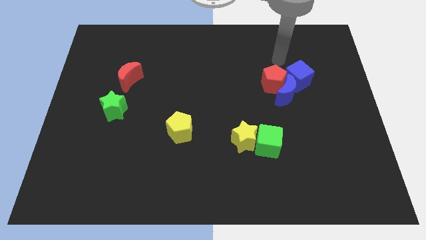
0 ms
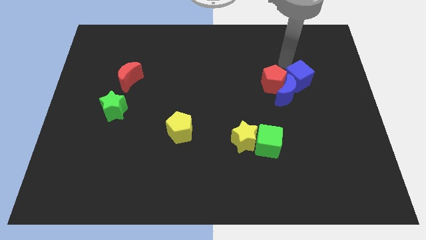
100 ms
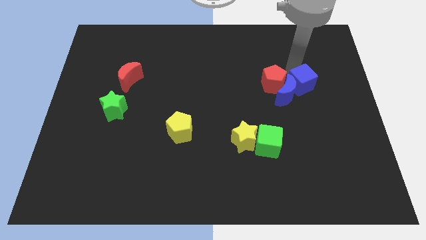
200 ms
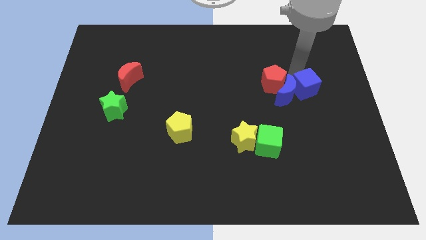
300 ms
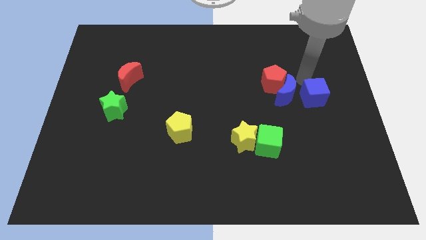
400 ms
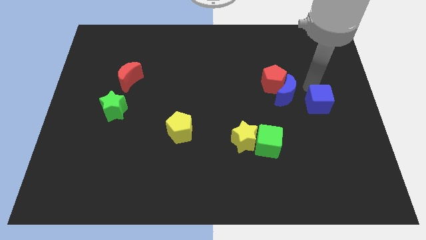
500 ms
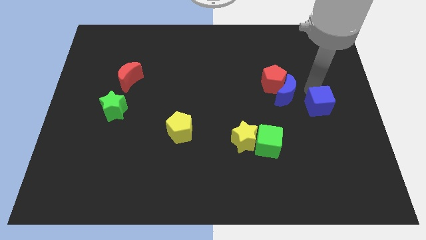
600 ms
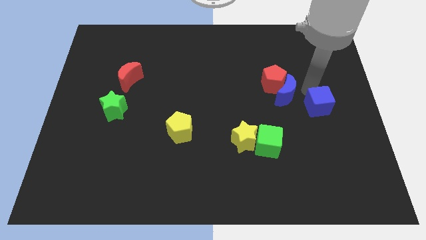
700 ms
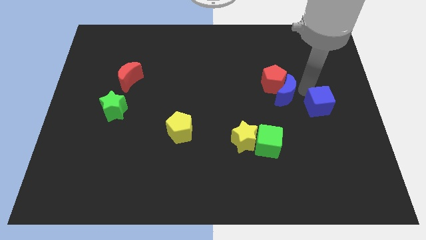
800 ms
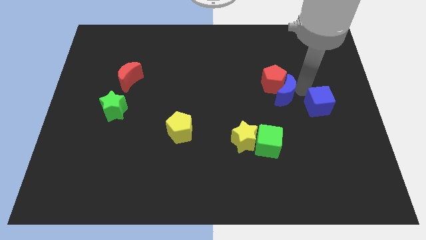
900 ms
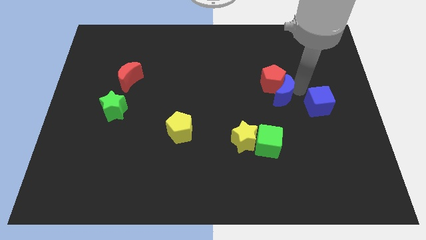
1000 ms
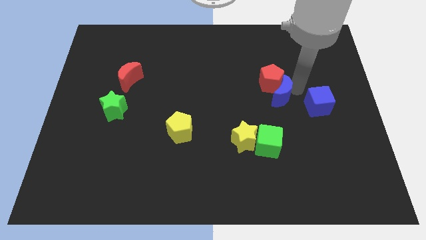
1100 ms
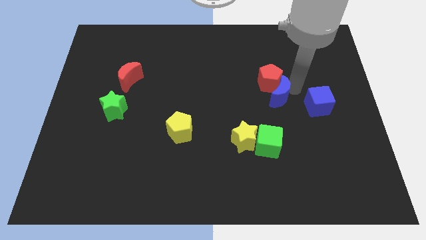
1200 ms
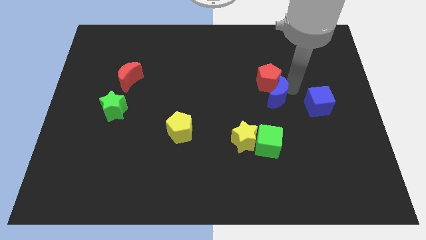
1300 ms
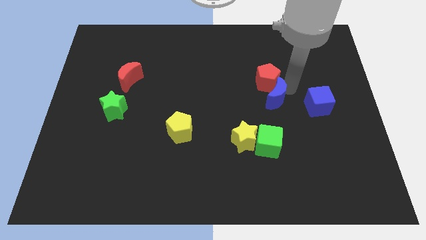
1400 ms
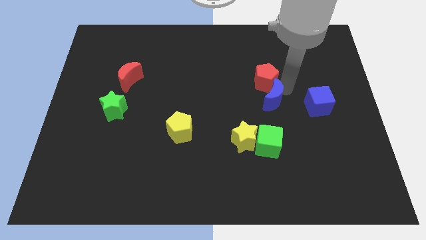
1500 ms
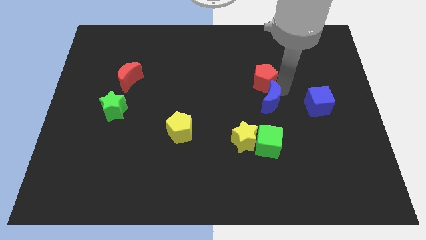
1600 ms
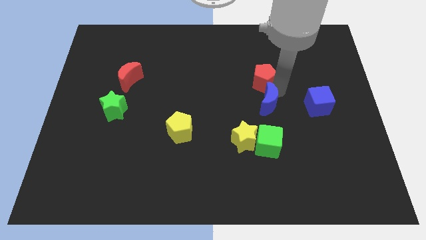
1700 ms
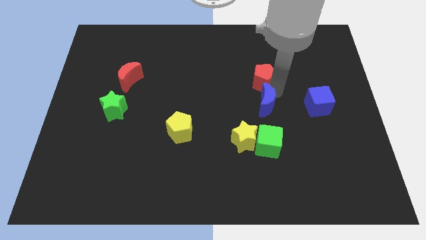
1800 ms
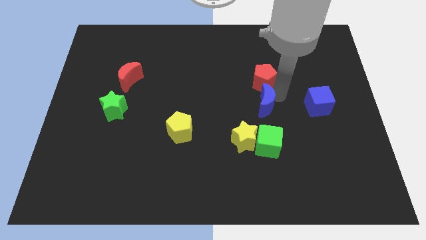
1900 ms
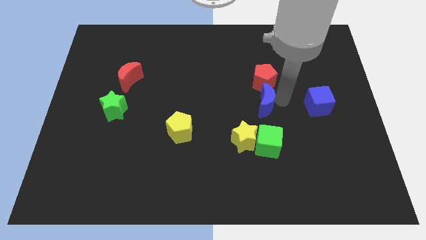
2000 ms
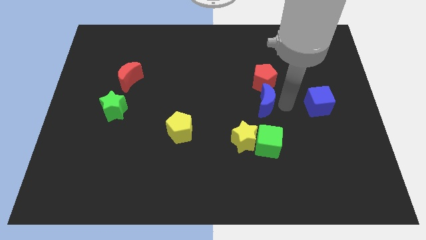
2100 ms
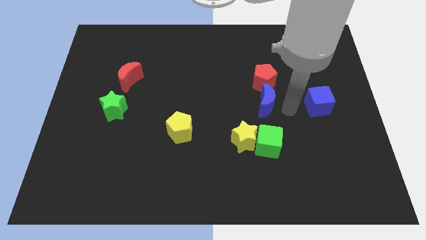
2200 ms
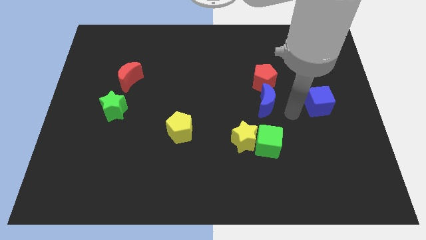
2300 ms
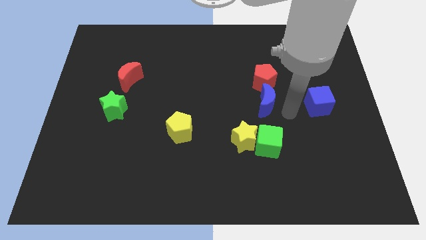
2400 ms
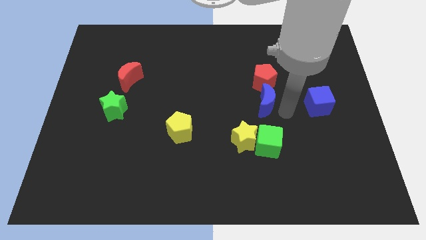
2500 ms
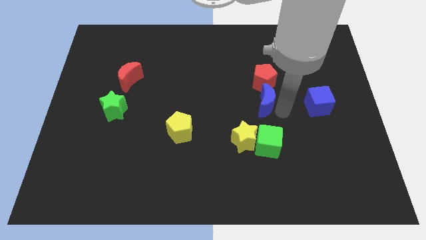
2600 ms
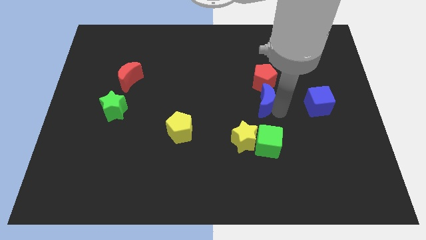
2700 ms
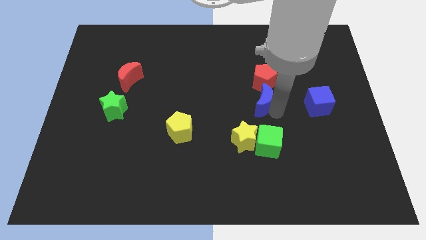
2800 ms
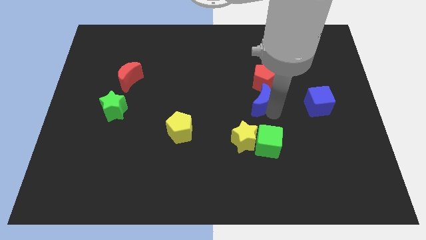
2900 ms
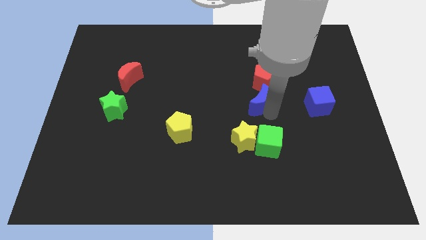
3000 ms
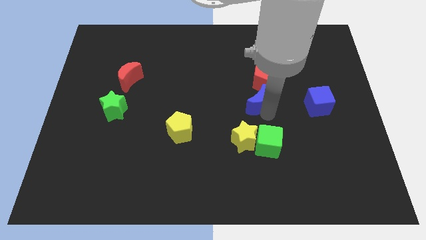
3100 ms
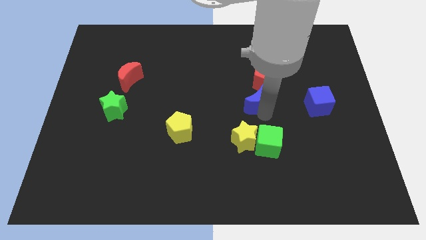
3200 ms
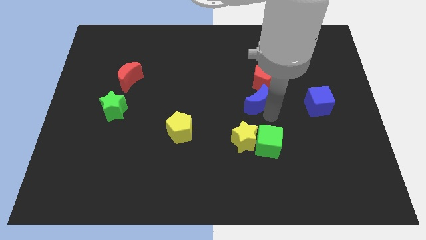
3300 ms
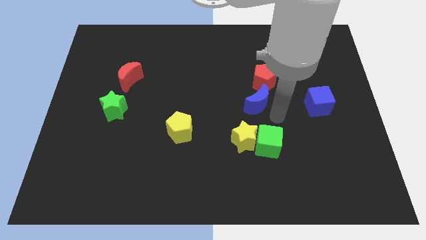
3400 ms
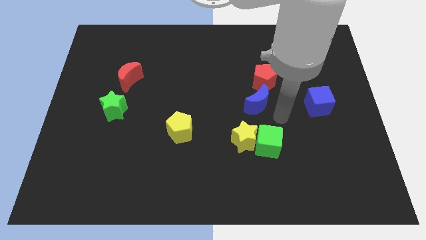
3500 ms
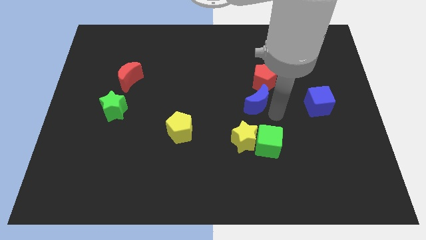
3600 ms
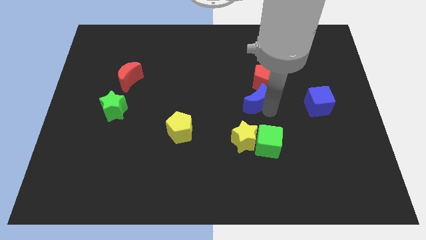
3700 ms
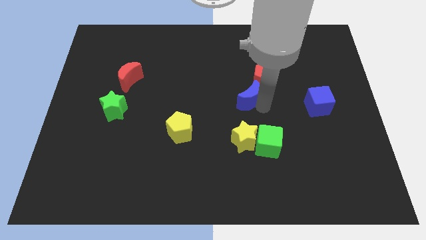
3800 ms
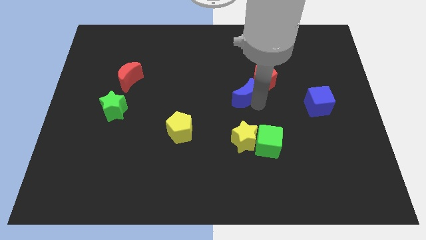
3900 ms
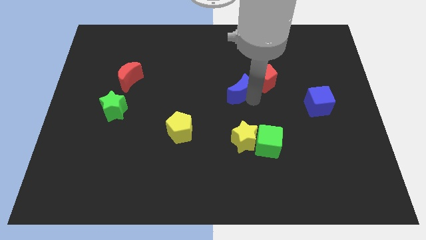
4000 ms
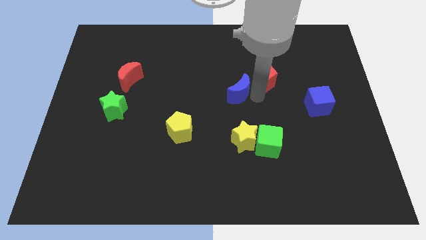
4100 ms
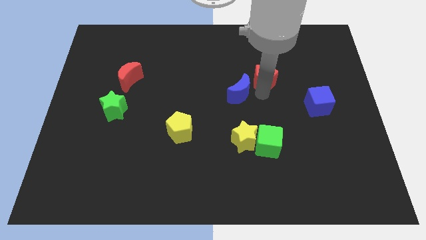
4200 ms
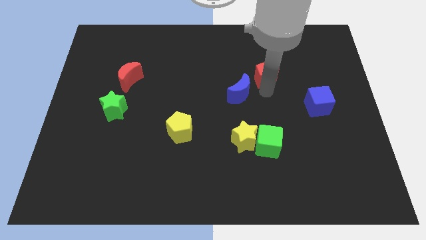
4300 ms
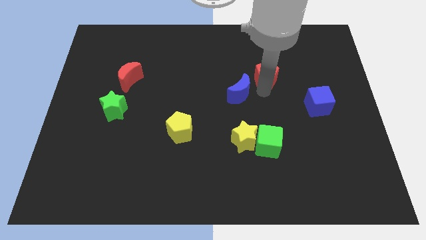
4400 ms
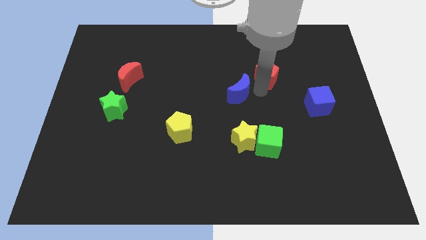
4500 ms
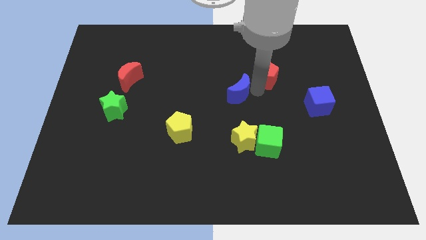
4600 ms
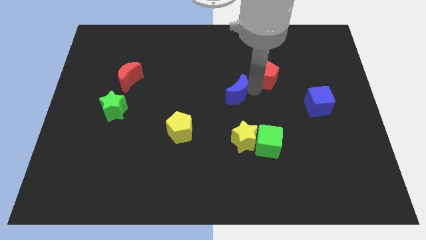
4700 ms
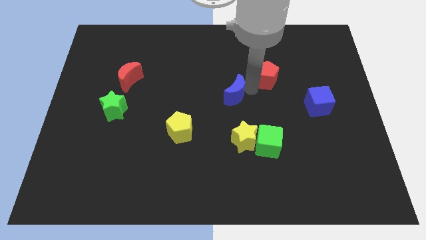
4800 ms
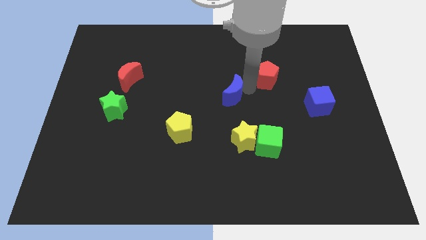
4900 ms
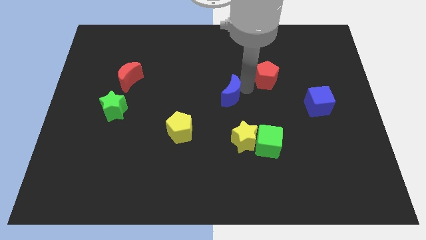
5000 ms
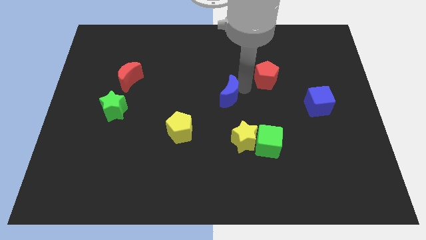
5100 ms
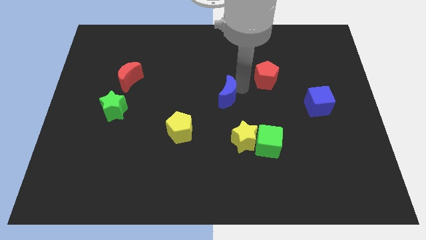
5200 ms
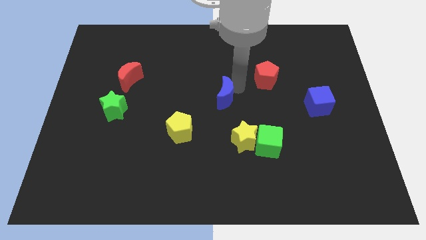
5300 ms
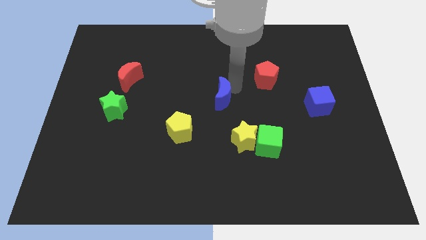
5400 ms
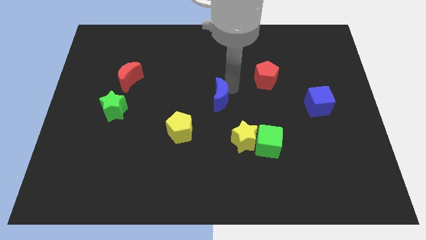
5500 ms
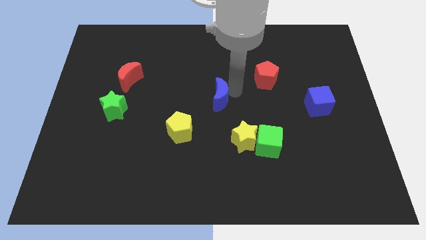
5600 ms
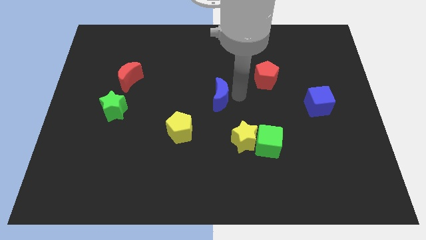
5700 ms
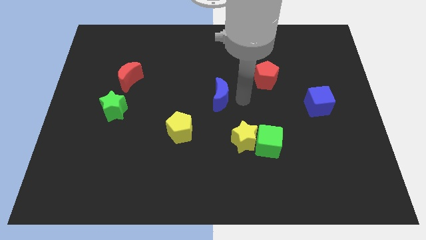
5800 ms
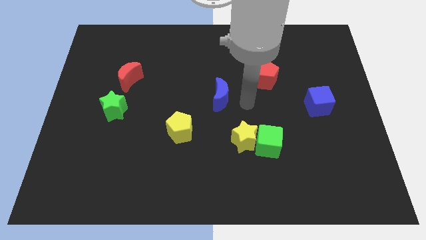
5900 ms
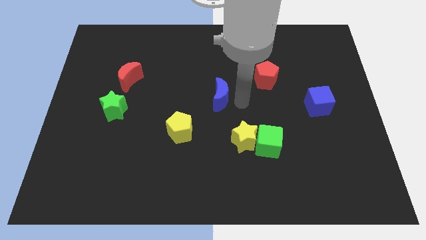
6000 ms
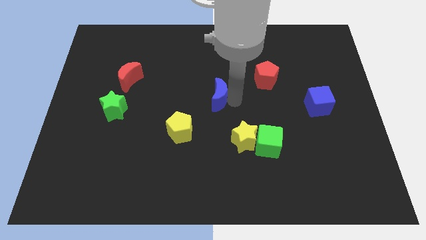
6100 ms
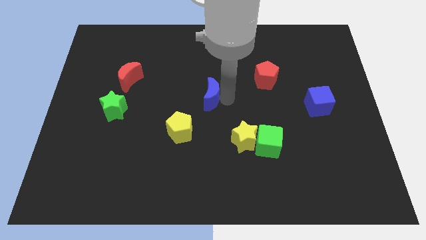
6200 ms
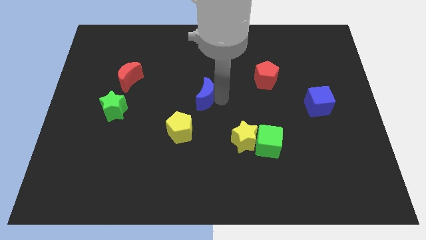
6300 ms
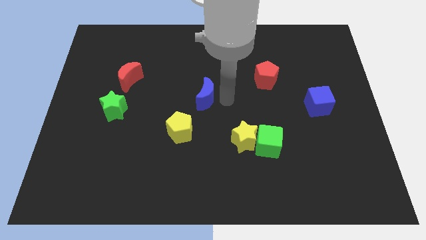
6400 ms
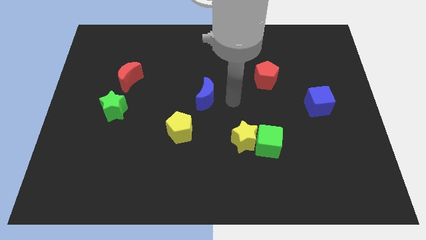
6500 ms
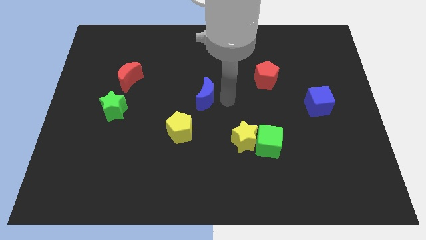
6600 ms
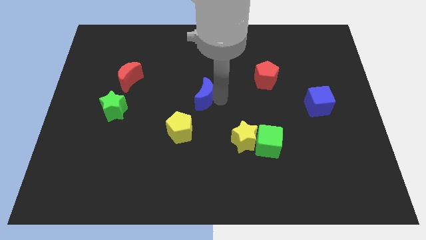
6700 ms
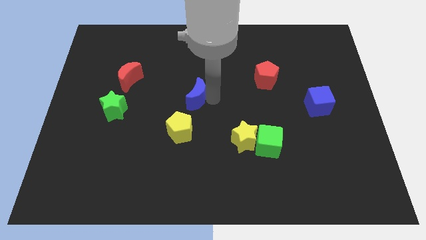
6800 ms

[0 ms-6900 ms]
slide the blue moon to the left

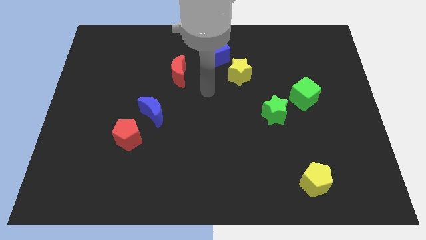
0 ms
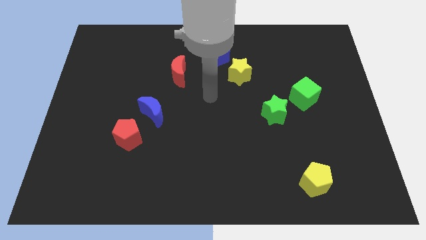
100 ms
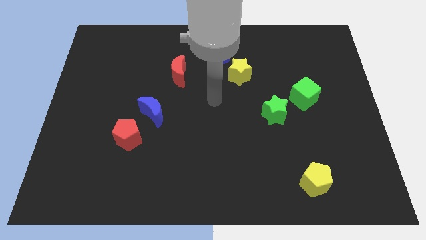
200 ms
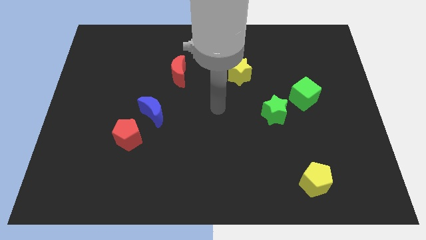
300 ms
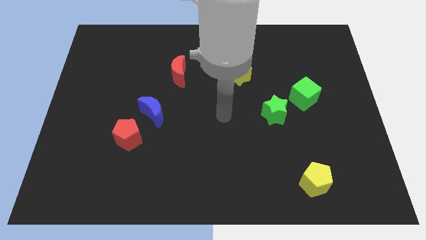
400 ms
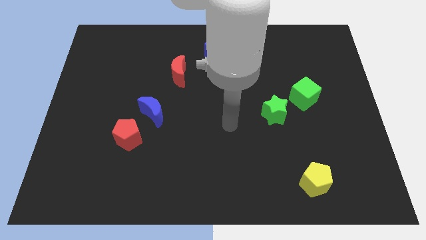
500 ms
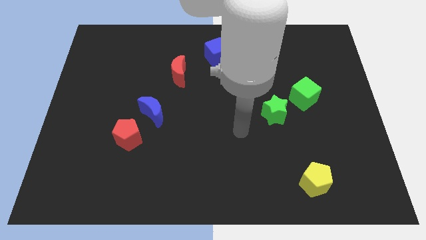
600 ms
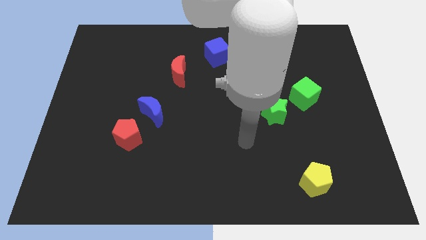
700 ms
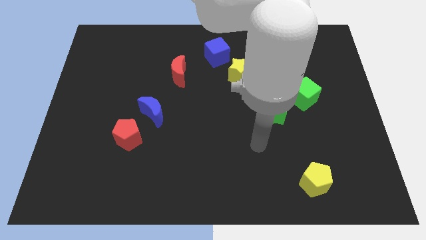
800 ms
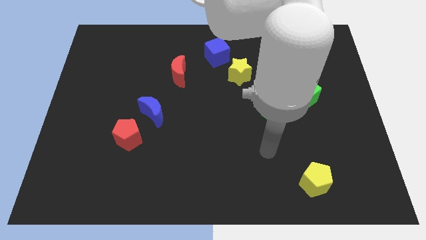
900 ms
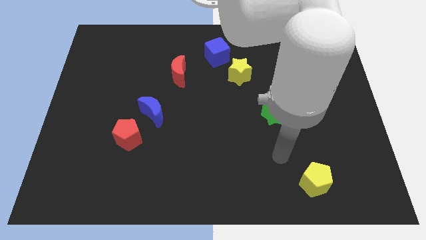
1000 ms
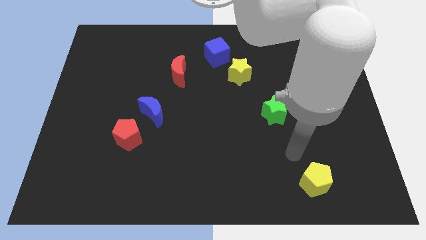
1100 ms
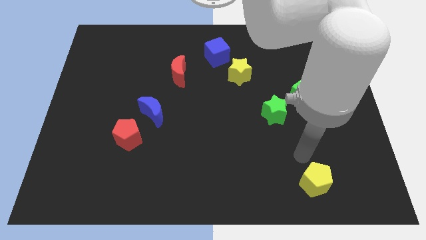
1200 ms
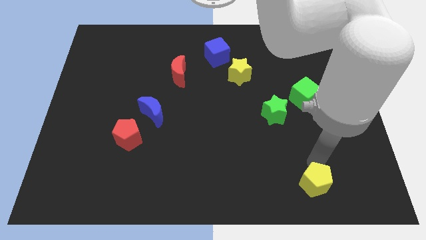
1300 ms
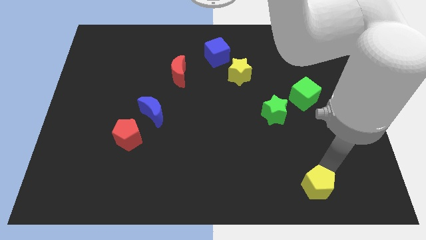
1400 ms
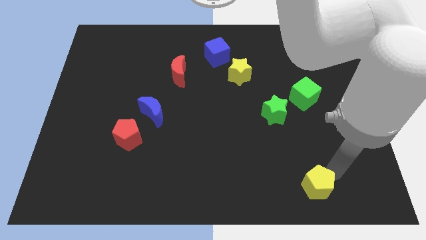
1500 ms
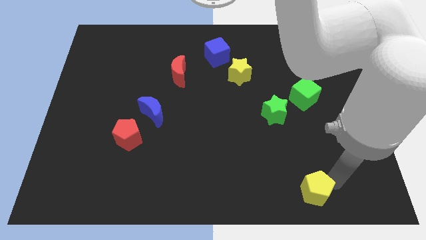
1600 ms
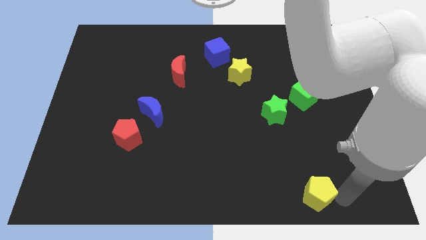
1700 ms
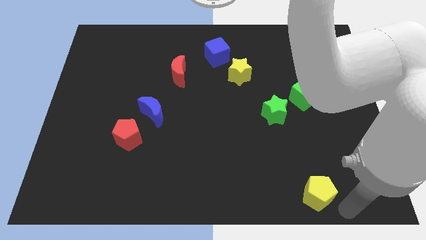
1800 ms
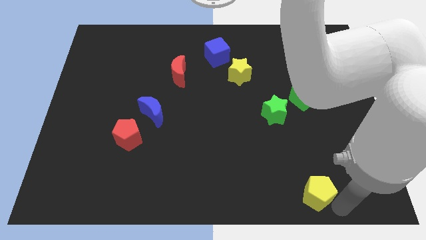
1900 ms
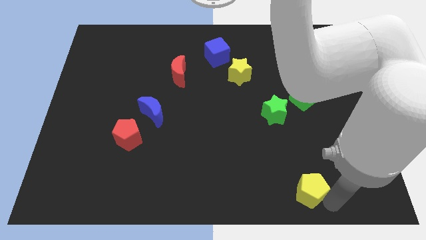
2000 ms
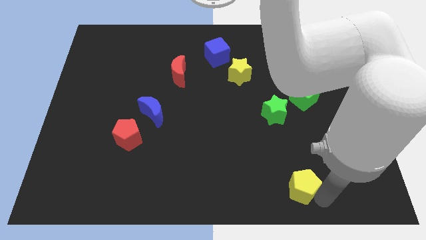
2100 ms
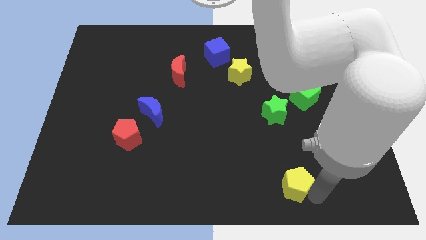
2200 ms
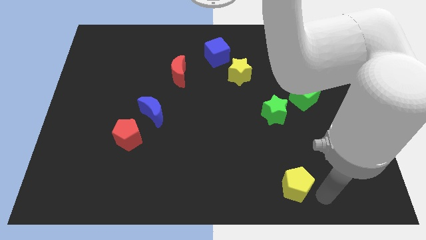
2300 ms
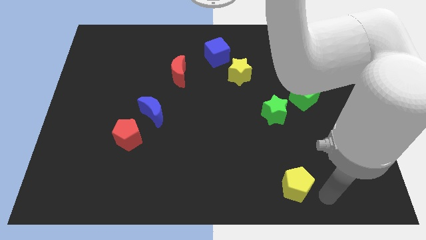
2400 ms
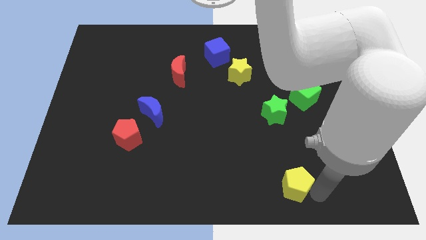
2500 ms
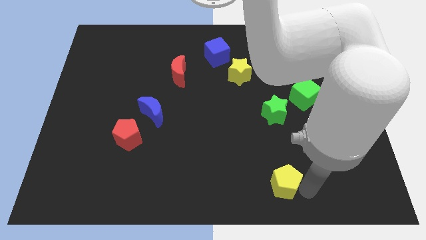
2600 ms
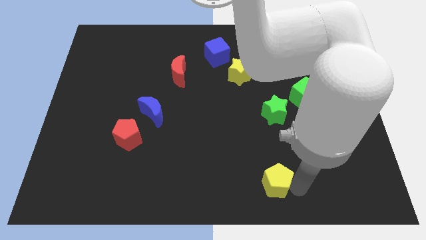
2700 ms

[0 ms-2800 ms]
slide the yellow pentagon a bit left
